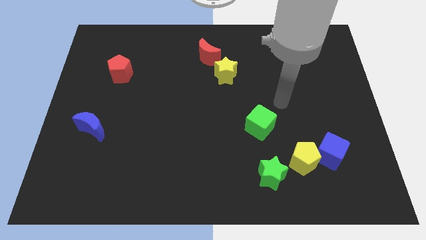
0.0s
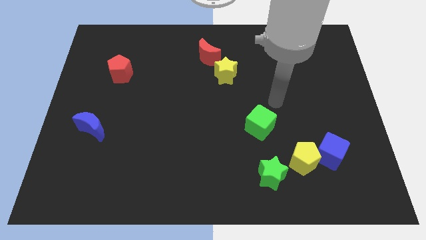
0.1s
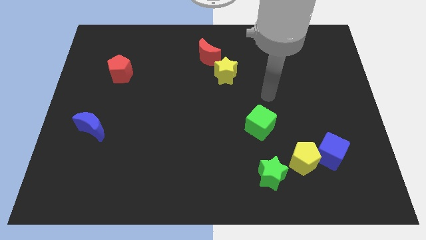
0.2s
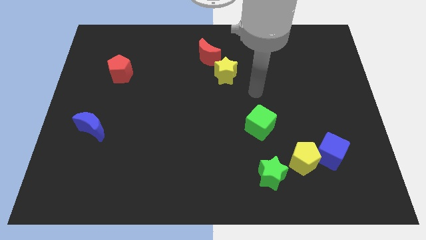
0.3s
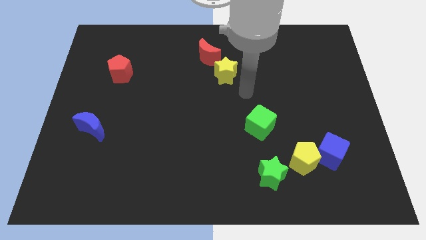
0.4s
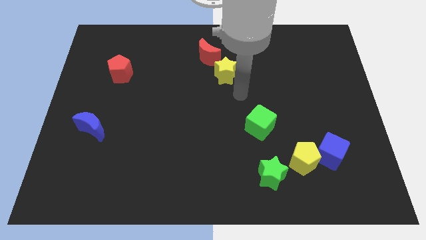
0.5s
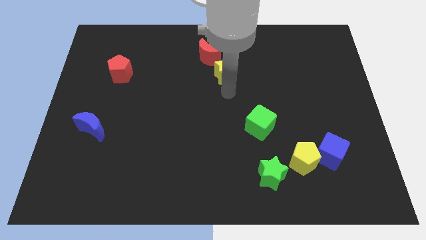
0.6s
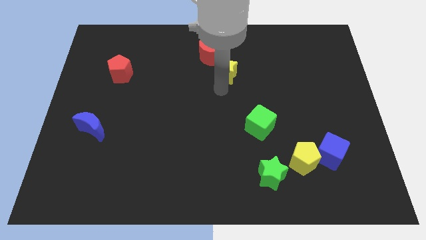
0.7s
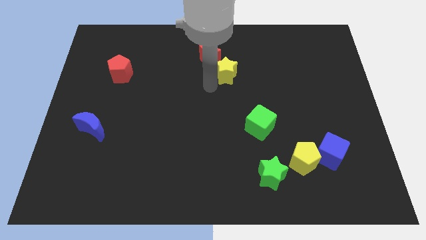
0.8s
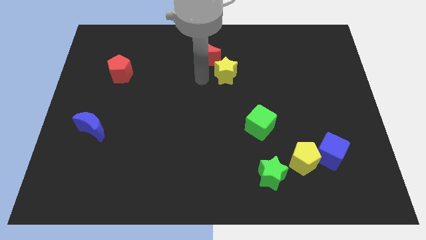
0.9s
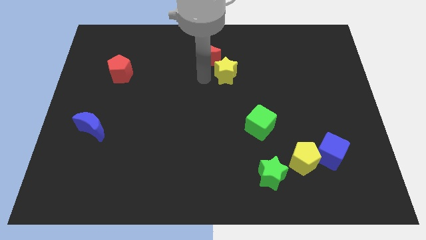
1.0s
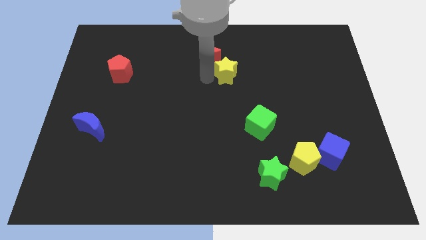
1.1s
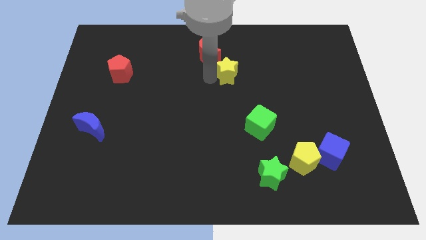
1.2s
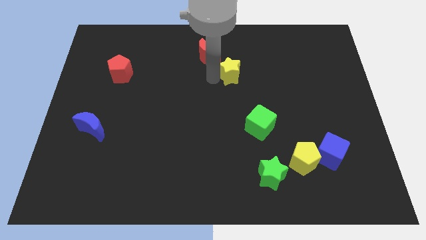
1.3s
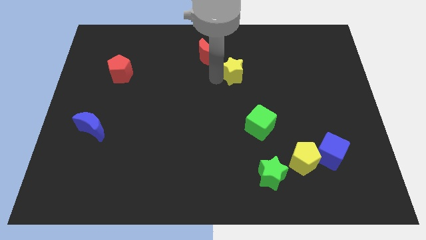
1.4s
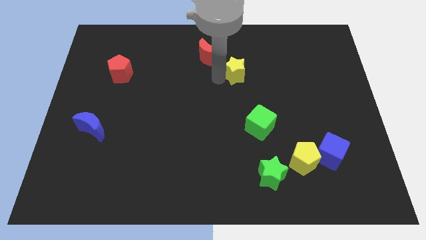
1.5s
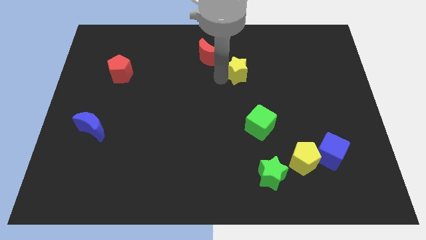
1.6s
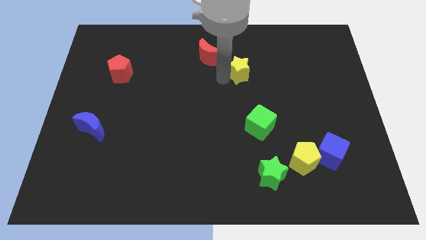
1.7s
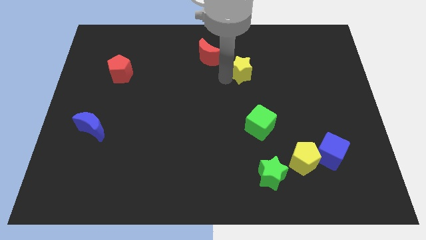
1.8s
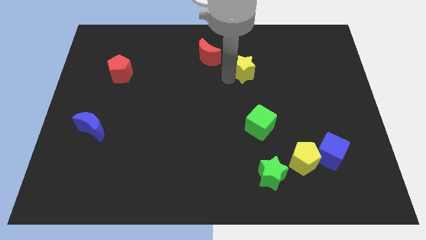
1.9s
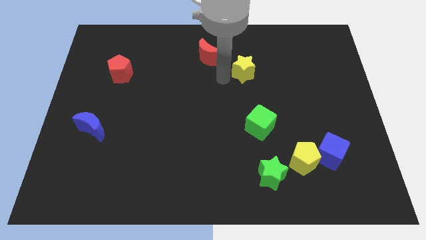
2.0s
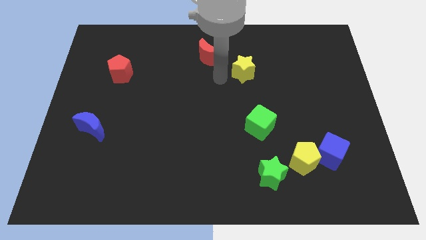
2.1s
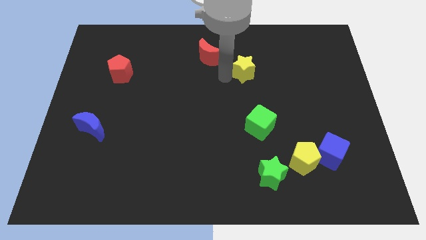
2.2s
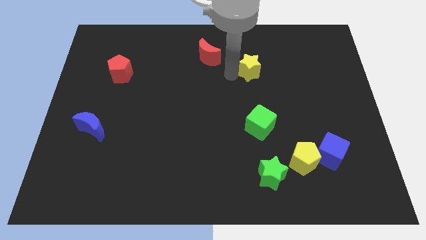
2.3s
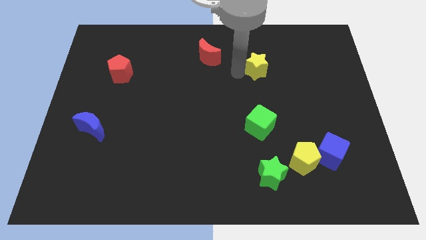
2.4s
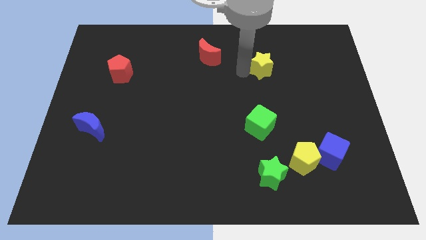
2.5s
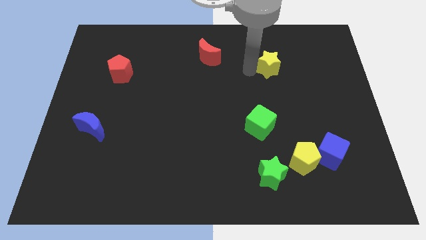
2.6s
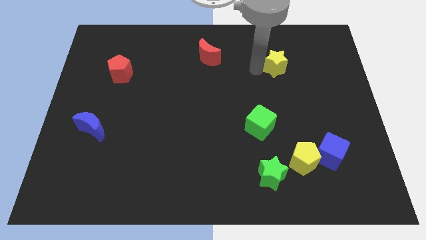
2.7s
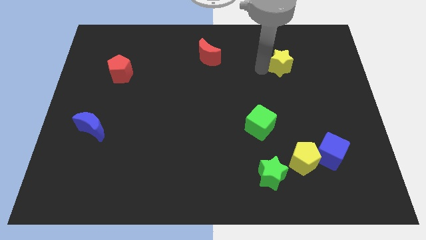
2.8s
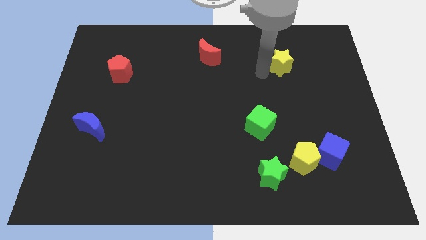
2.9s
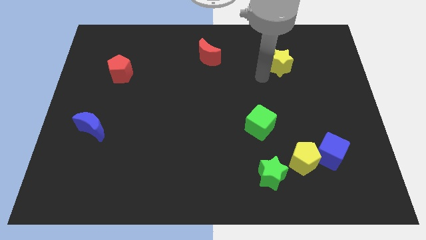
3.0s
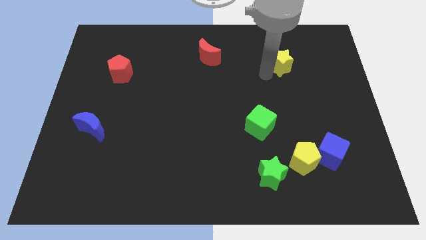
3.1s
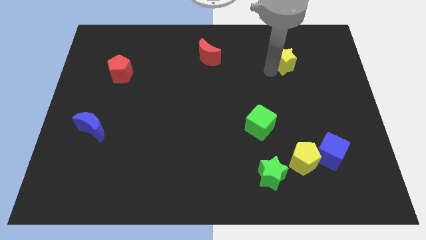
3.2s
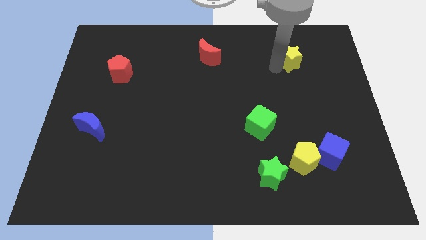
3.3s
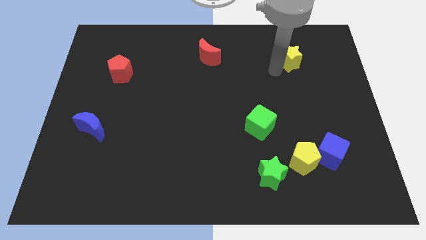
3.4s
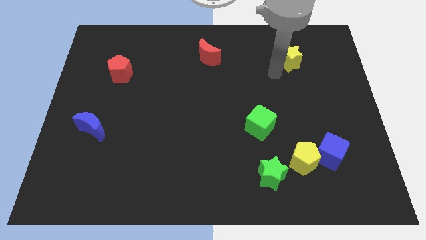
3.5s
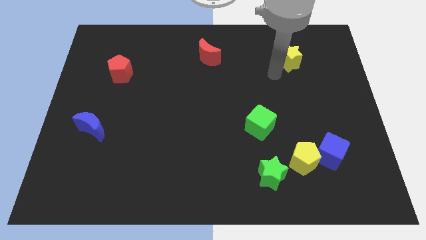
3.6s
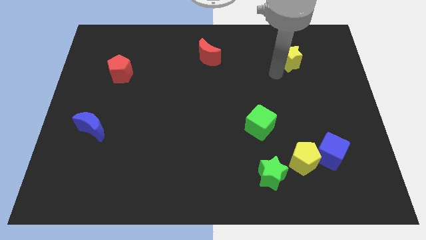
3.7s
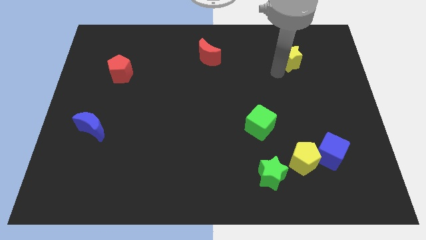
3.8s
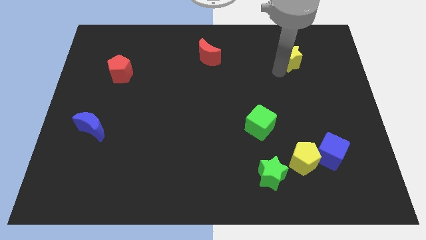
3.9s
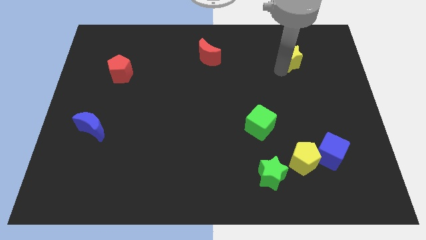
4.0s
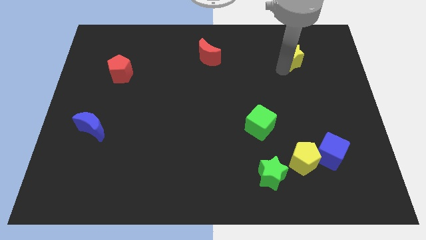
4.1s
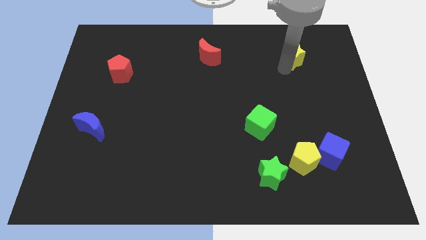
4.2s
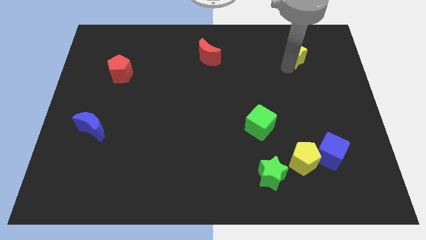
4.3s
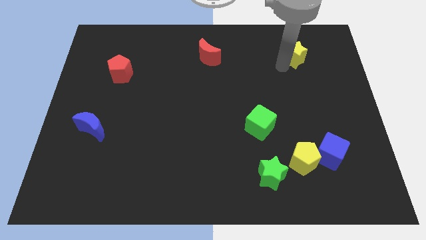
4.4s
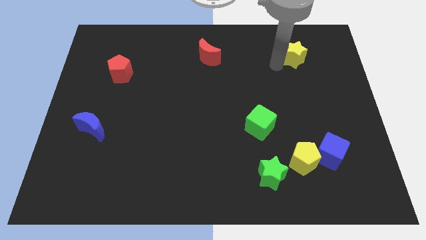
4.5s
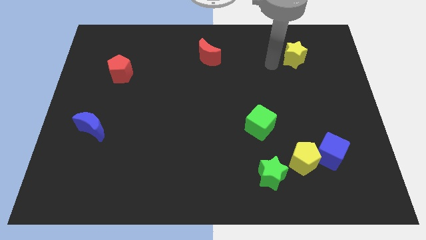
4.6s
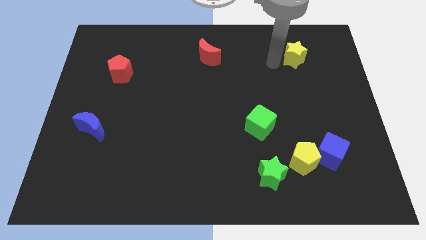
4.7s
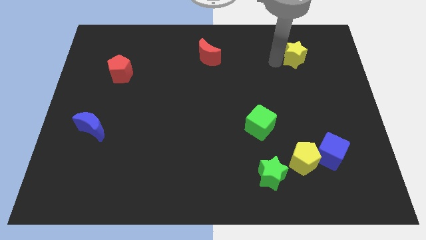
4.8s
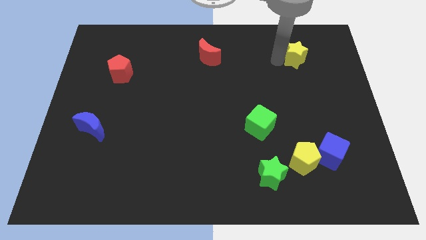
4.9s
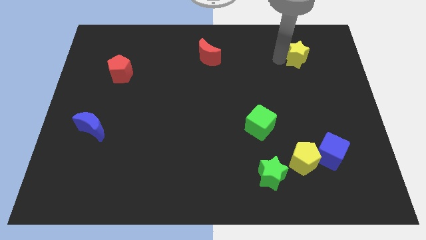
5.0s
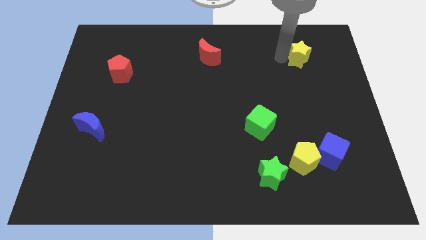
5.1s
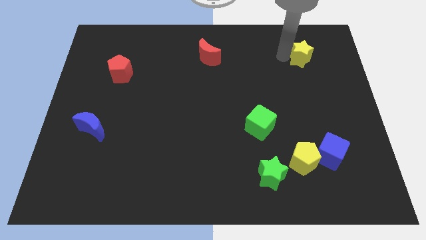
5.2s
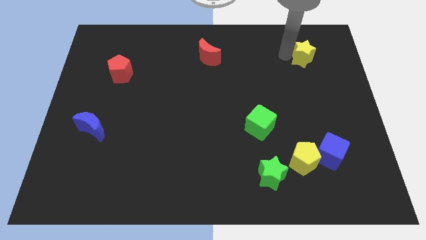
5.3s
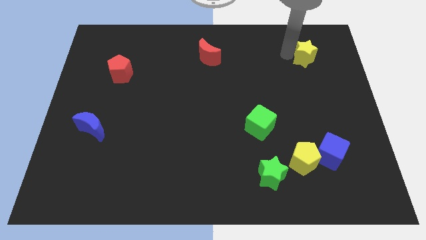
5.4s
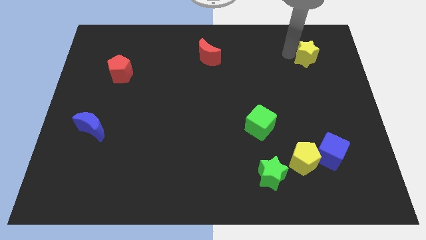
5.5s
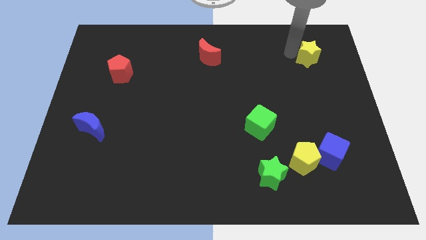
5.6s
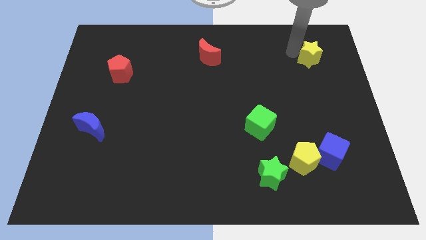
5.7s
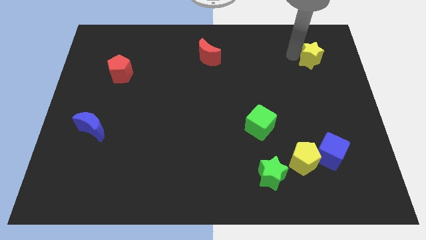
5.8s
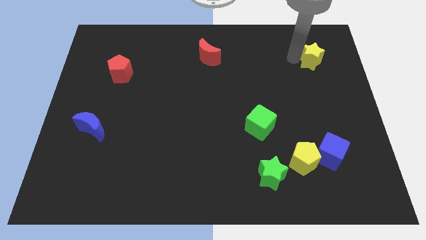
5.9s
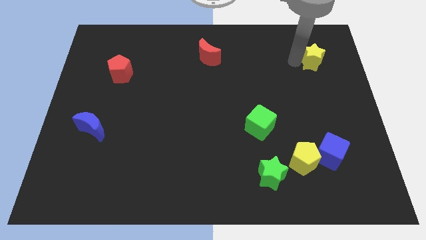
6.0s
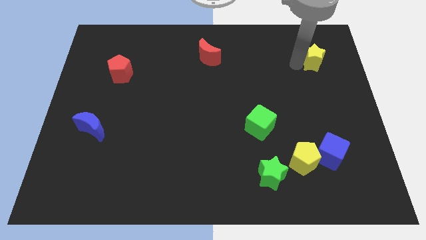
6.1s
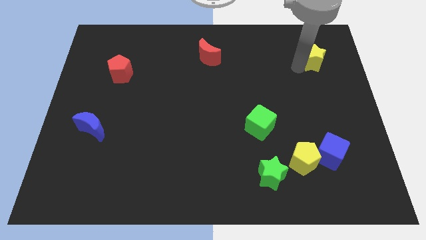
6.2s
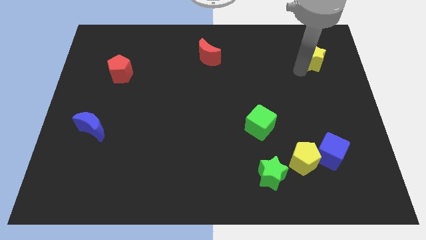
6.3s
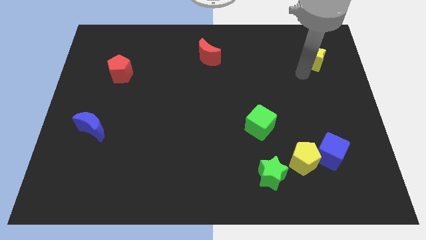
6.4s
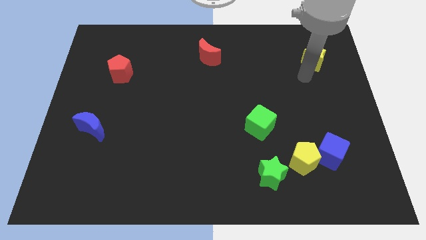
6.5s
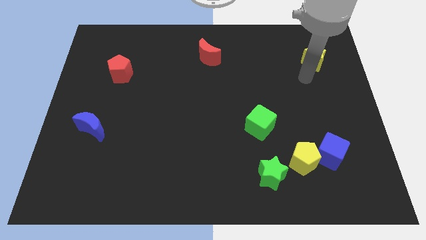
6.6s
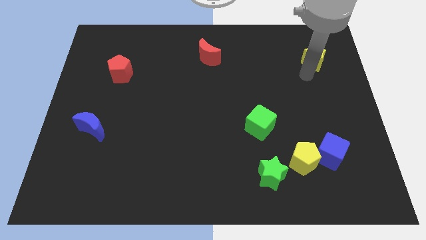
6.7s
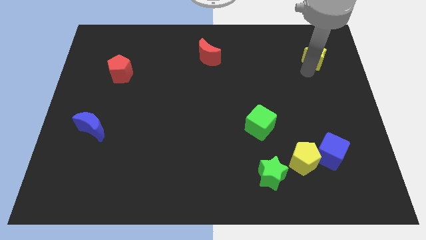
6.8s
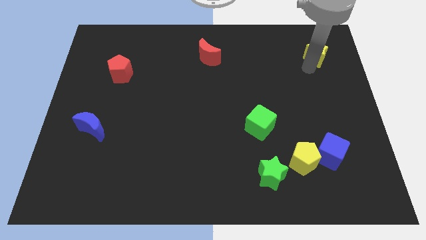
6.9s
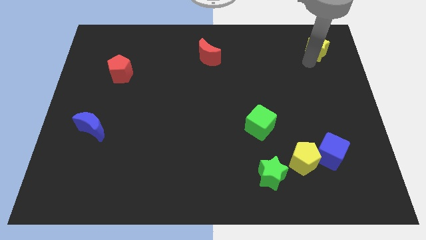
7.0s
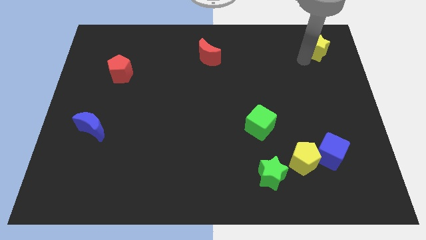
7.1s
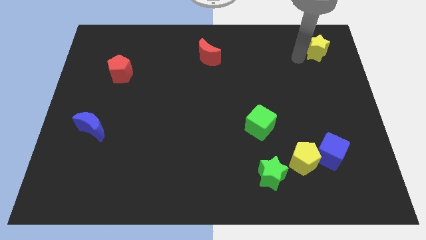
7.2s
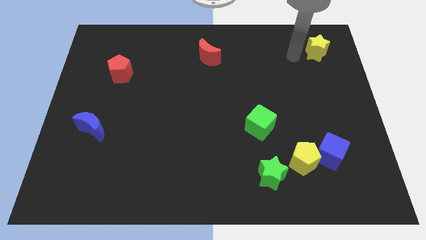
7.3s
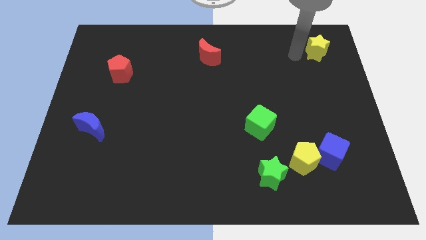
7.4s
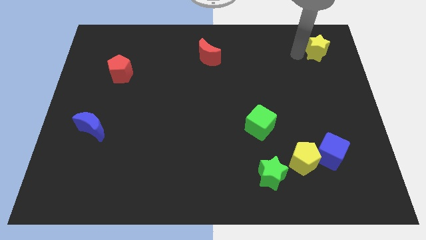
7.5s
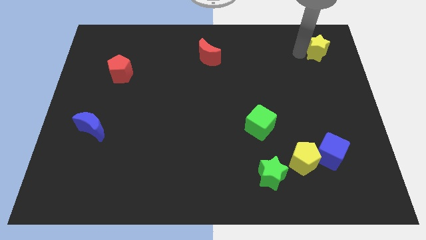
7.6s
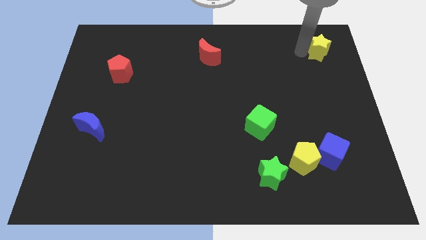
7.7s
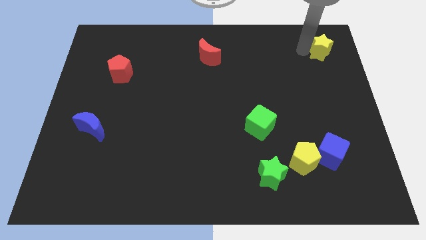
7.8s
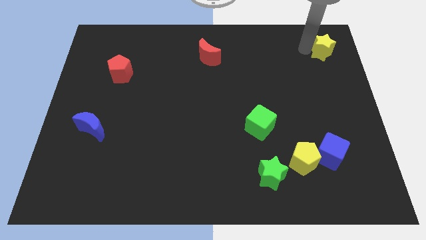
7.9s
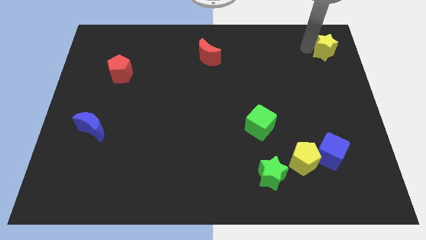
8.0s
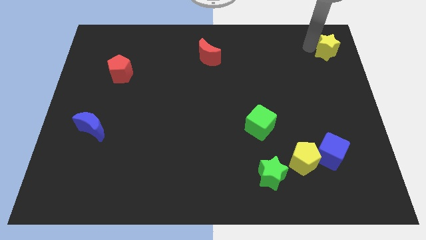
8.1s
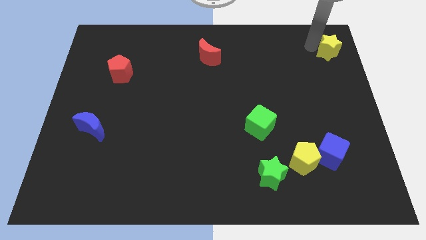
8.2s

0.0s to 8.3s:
push the yellow star to the top right
